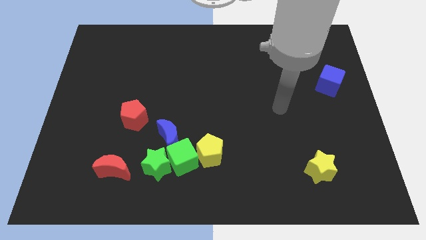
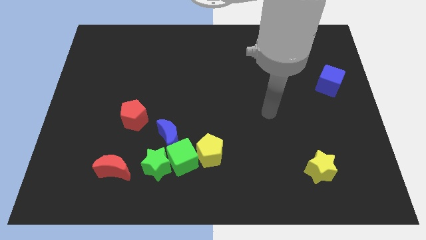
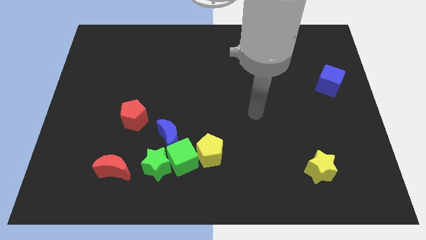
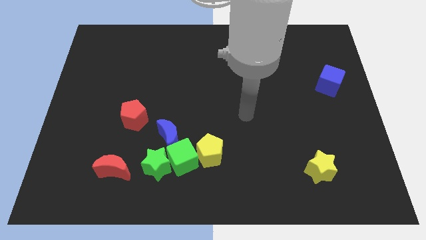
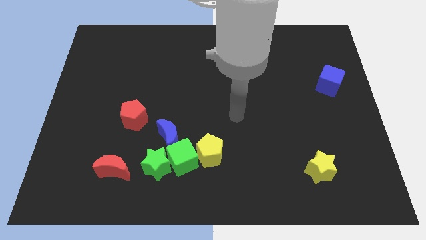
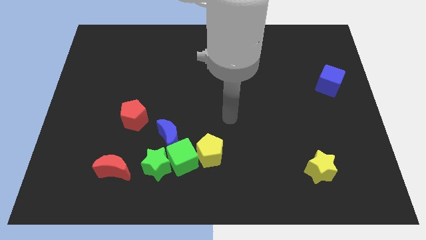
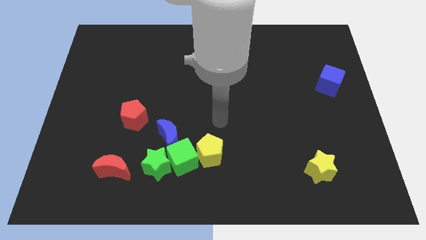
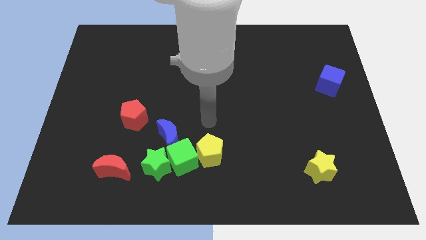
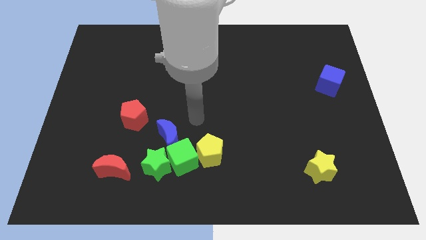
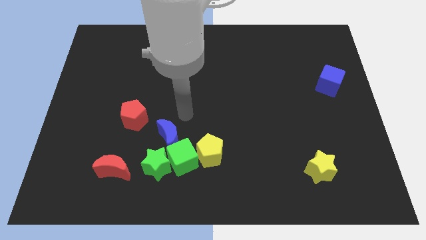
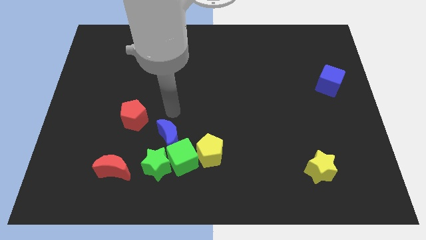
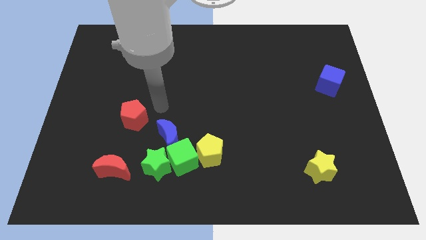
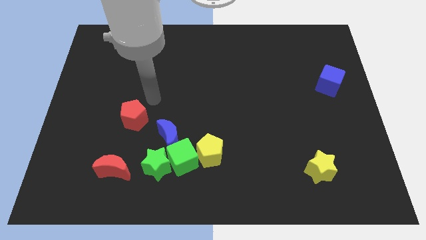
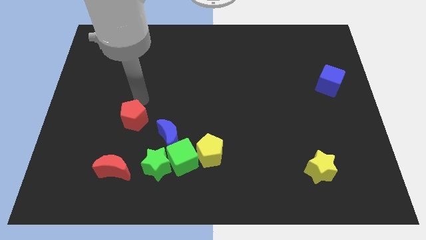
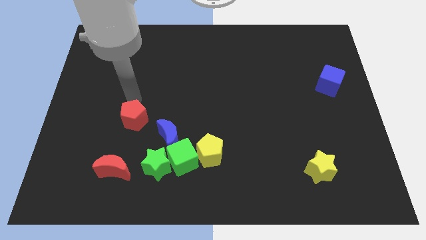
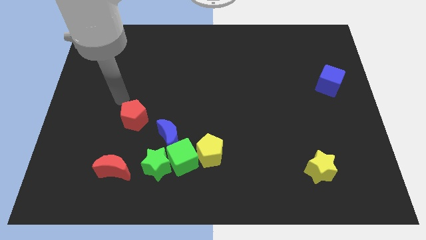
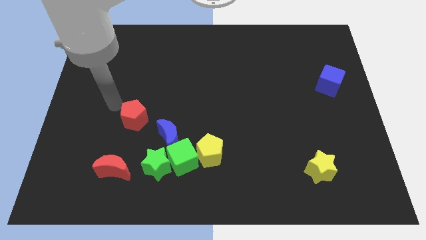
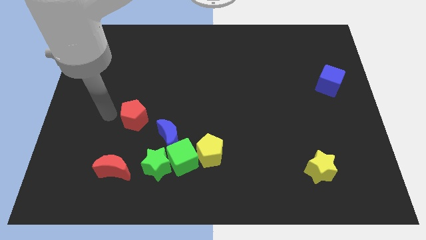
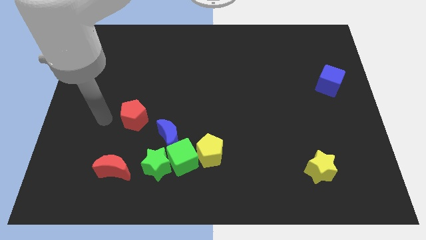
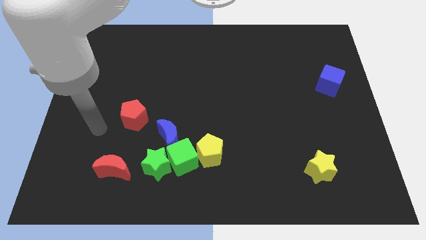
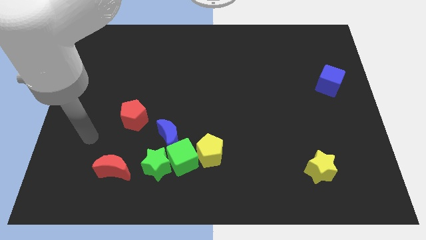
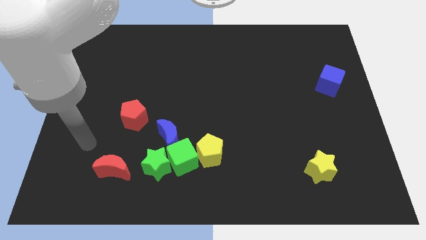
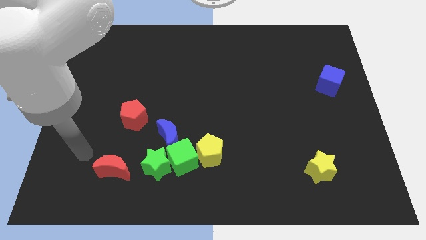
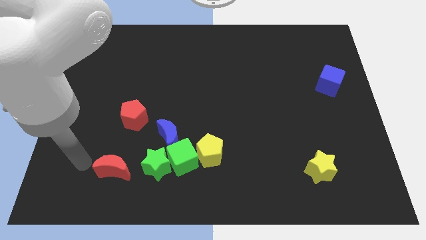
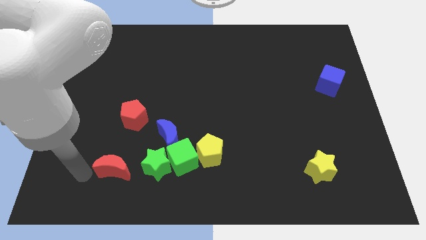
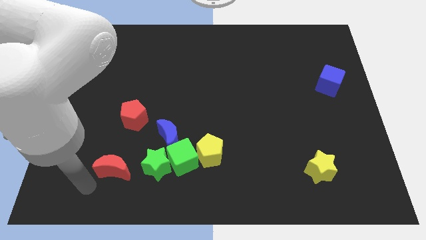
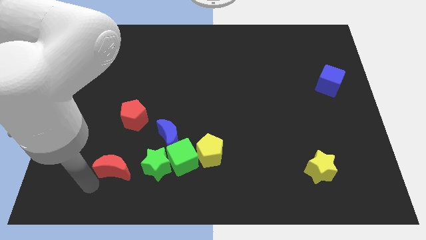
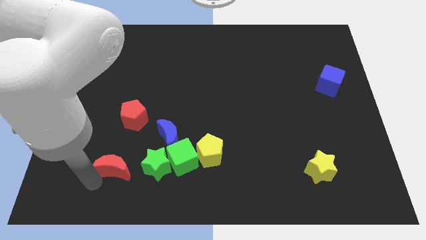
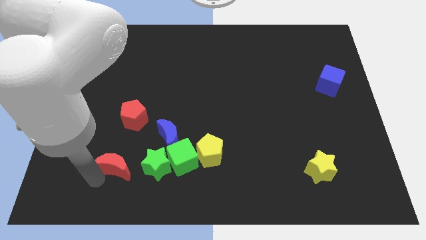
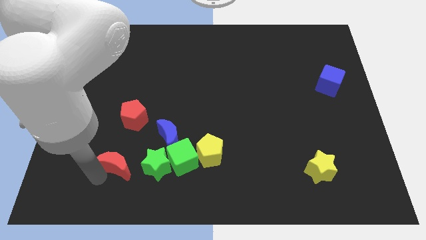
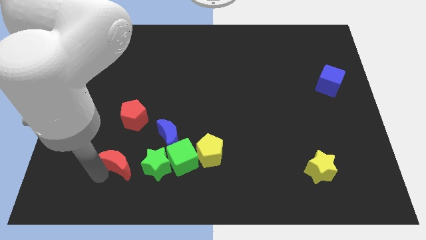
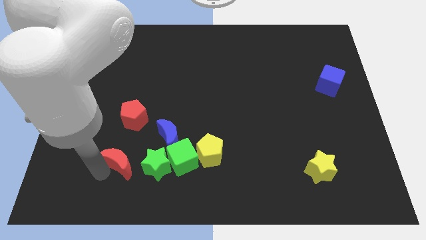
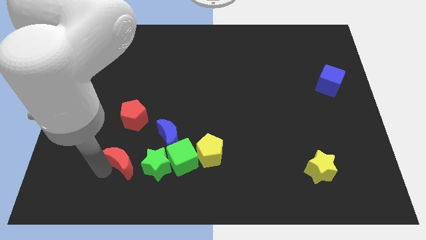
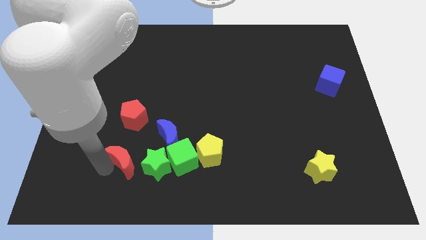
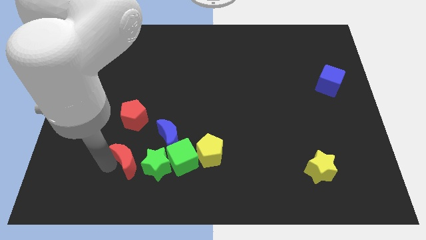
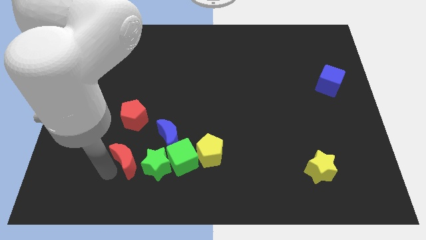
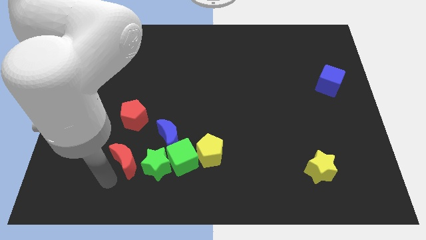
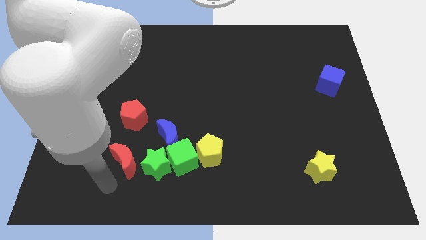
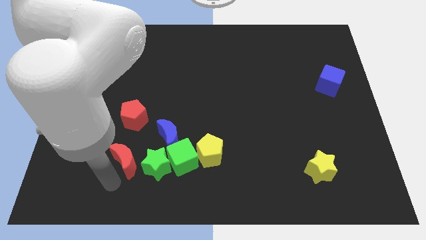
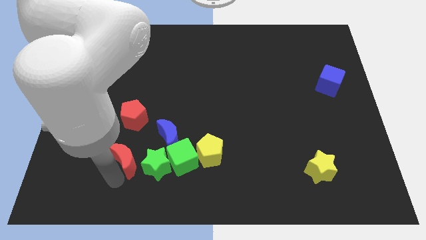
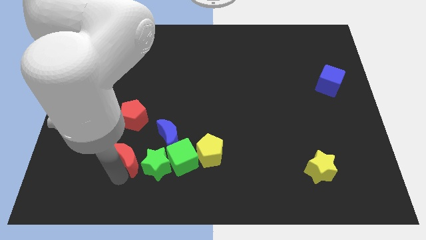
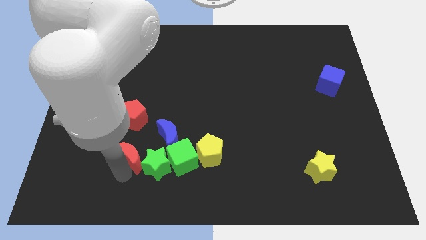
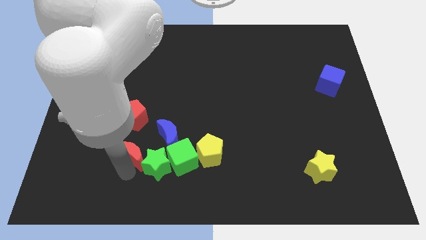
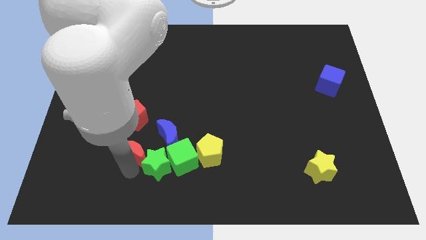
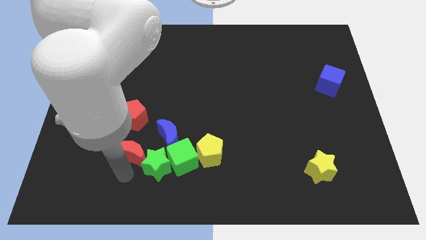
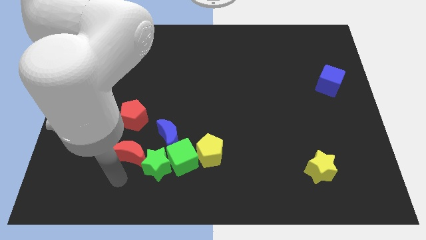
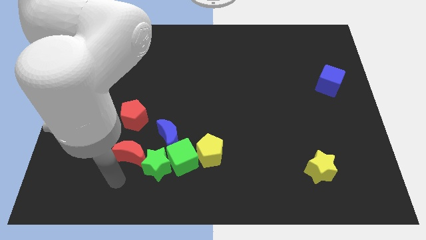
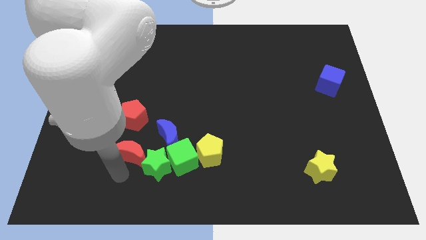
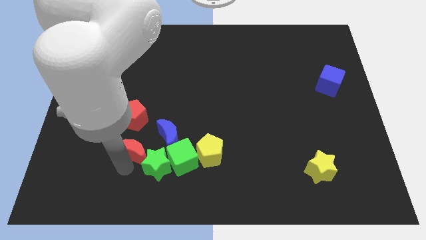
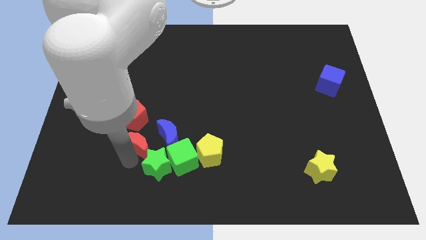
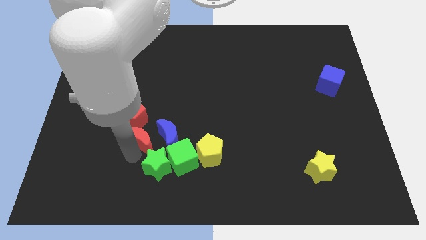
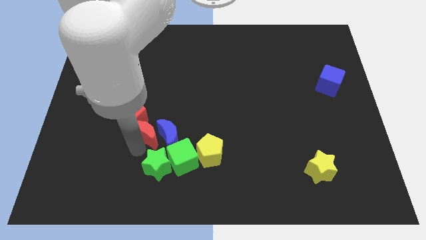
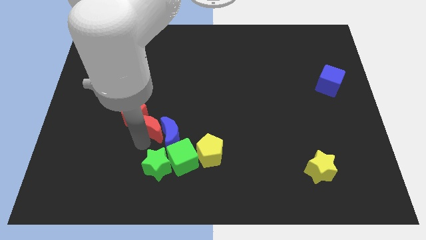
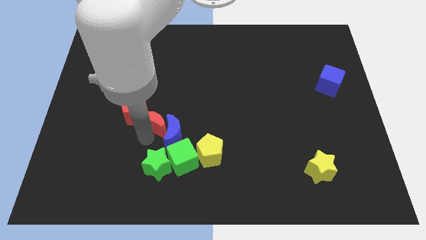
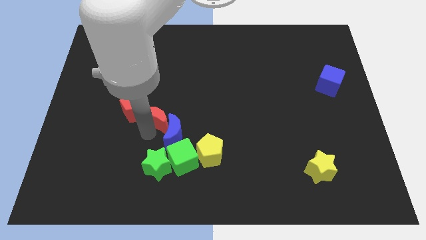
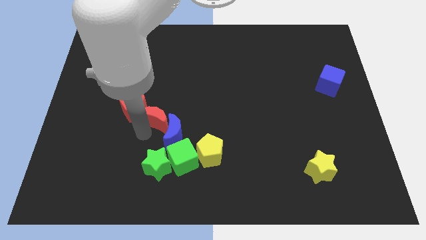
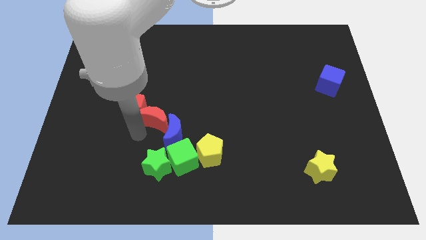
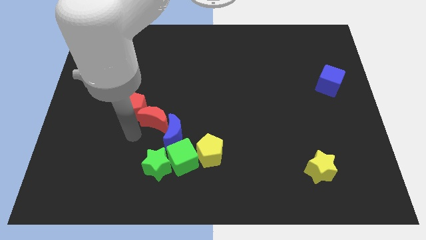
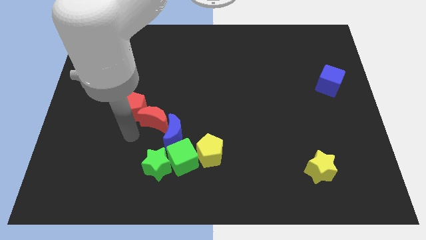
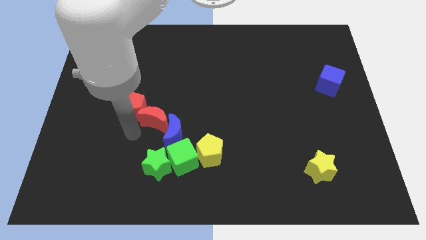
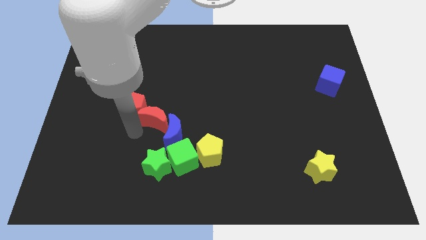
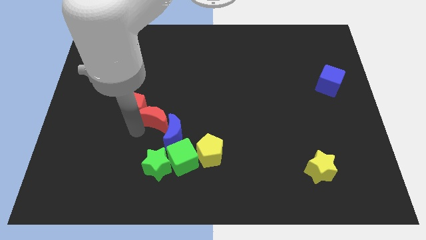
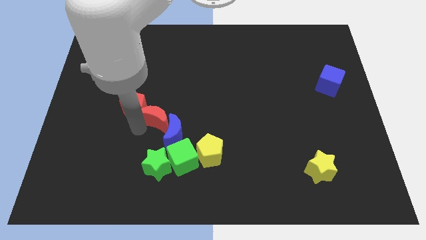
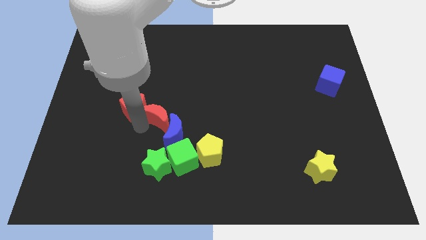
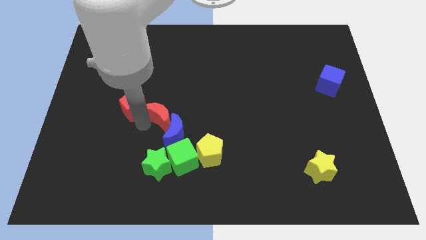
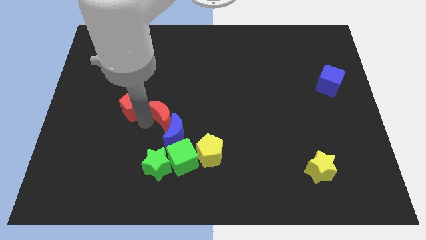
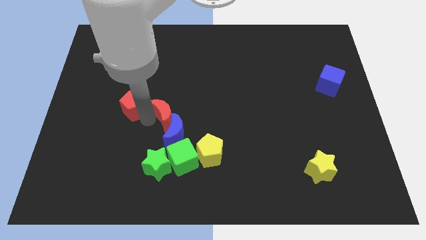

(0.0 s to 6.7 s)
put the red moon above the green cube

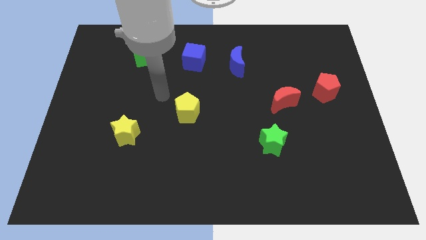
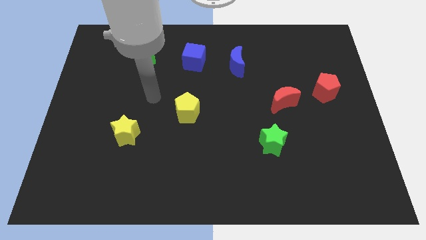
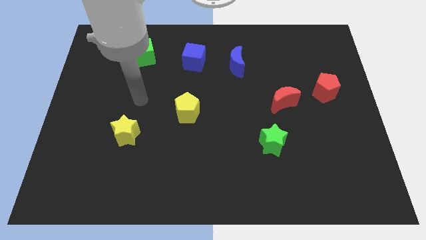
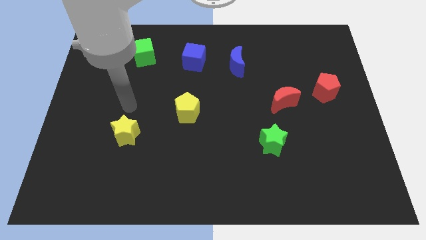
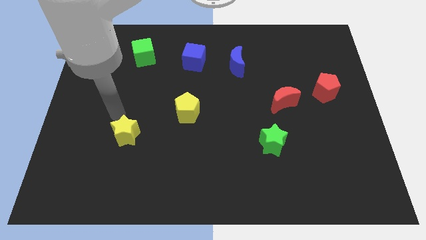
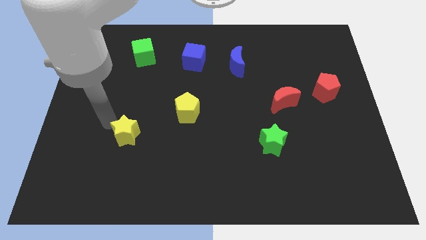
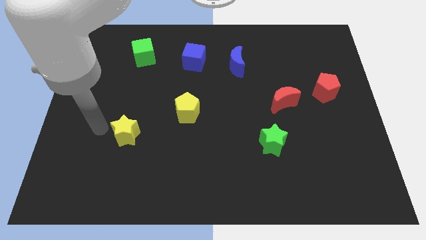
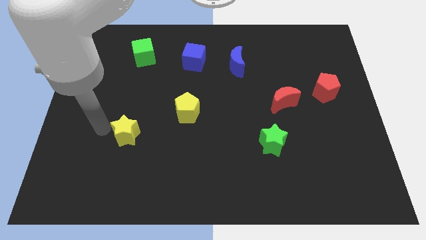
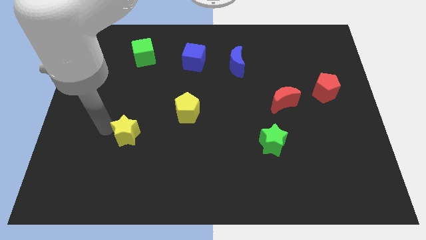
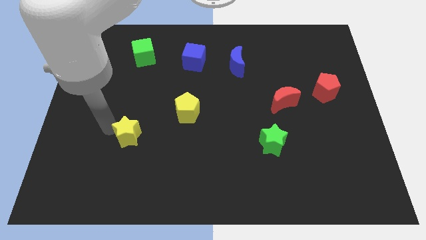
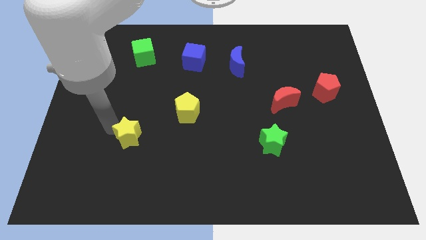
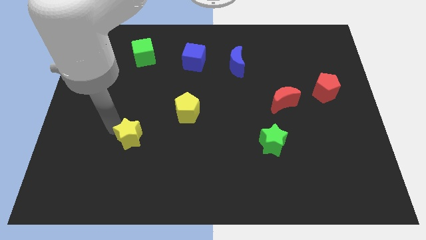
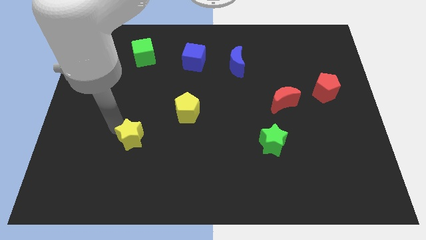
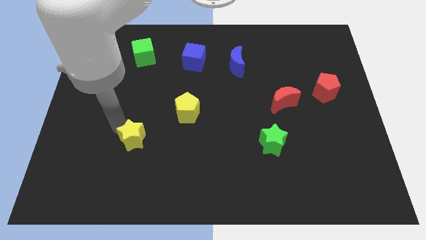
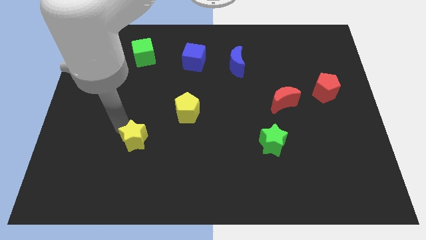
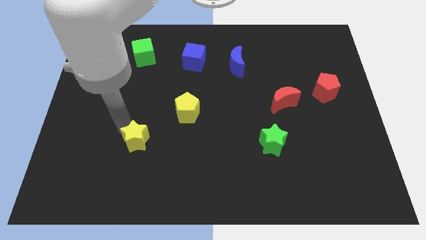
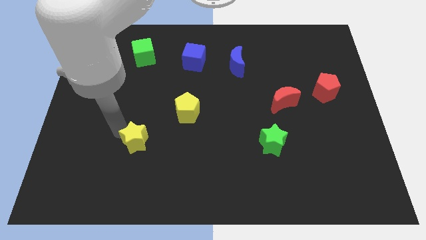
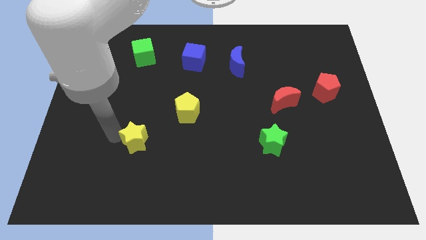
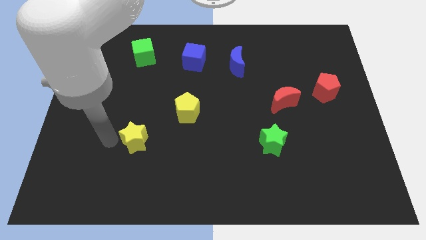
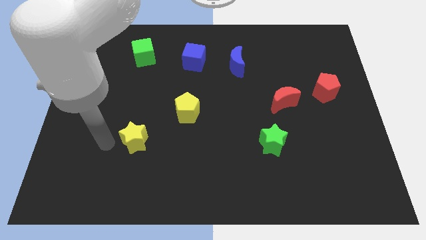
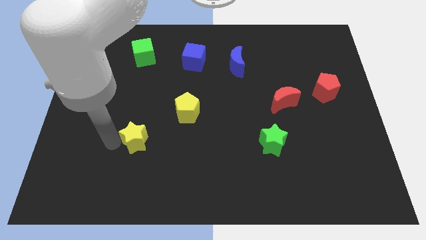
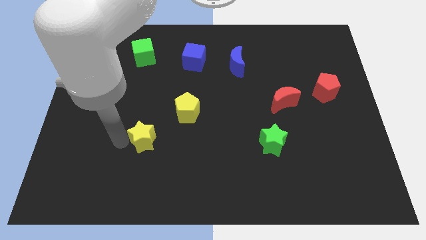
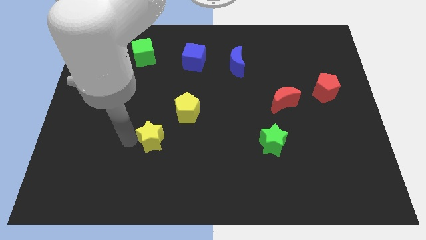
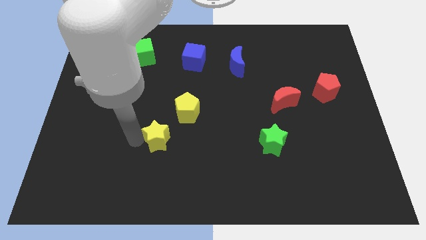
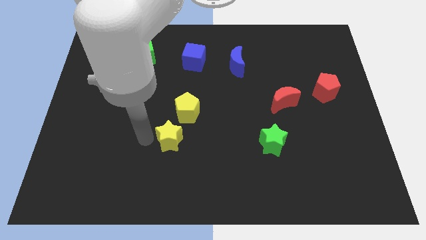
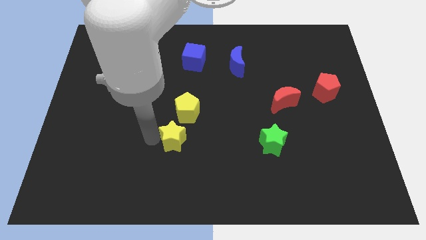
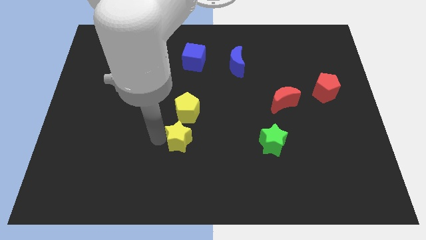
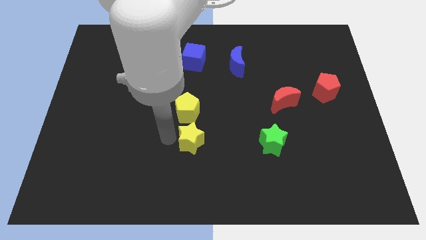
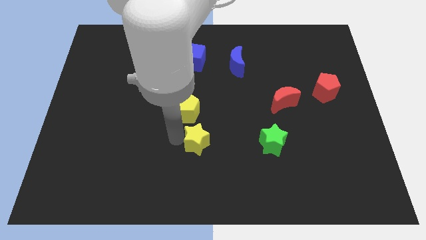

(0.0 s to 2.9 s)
move the yellow star to the left side of the green star
